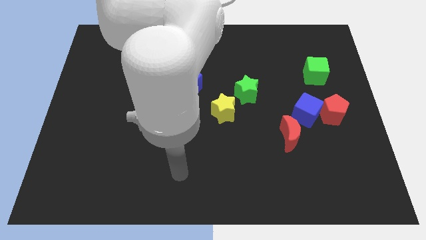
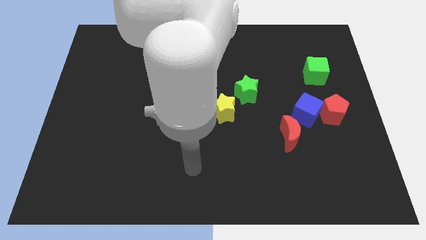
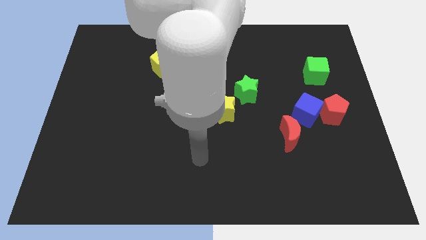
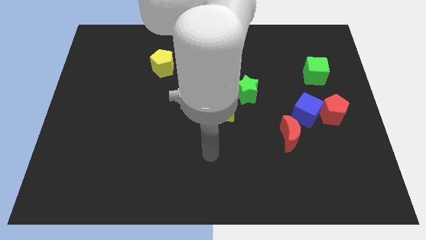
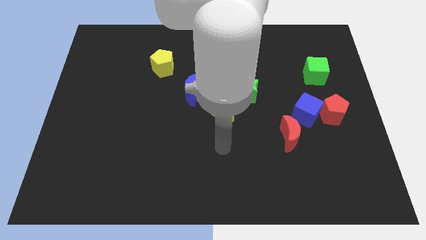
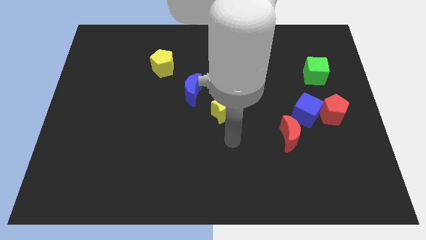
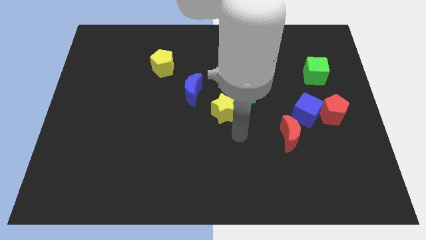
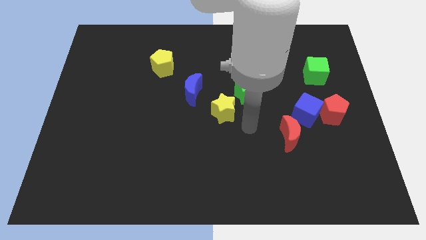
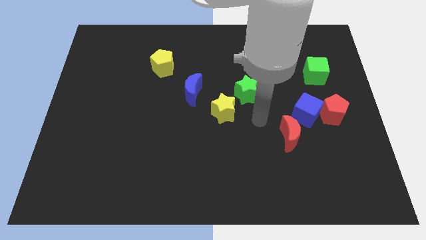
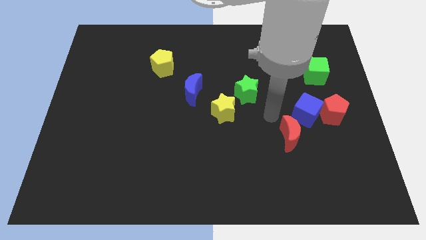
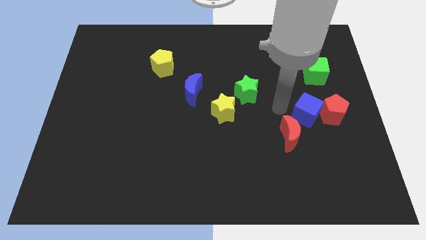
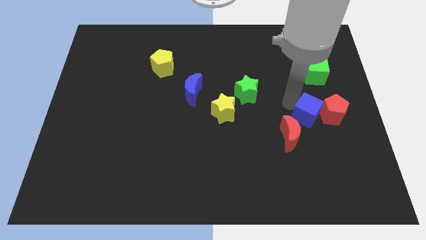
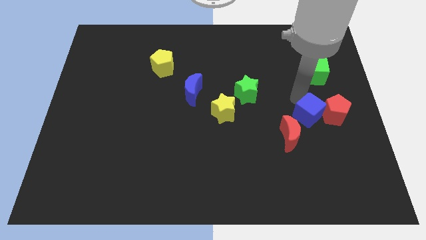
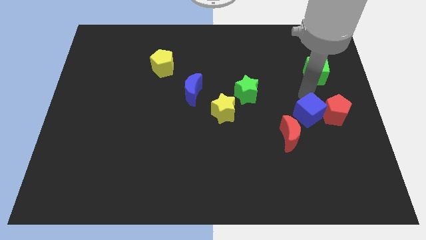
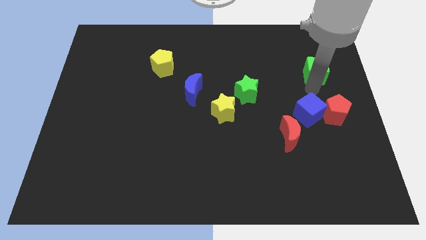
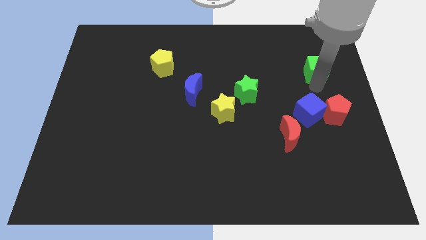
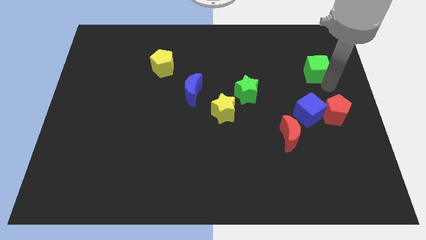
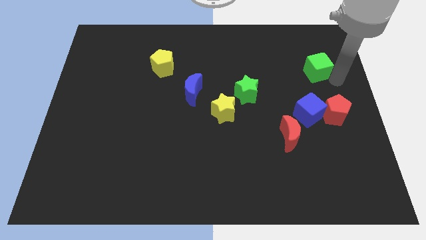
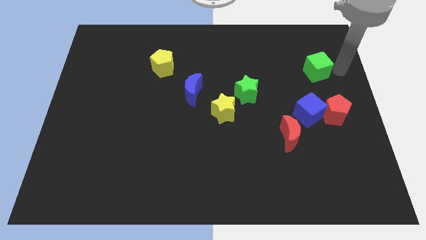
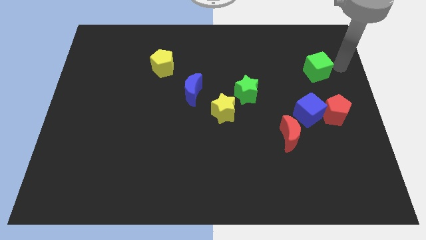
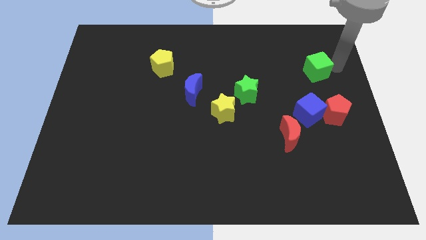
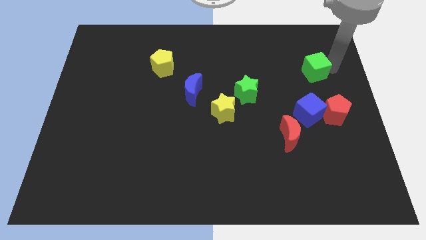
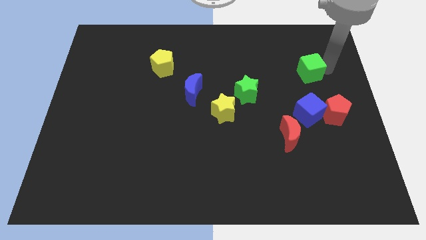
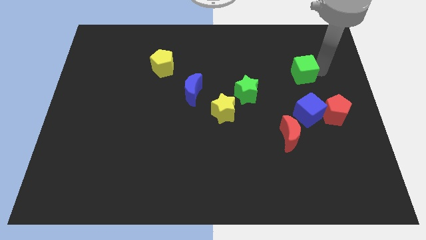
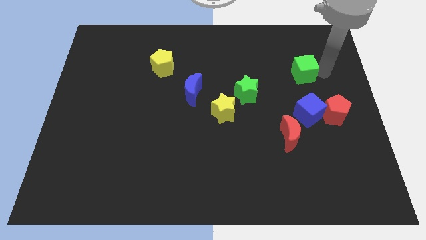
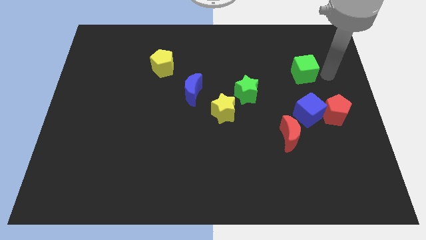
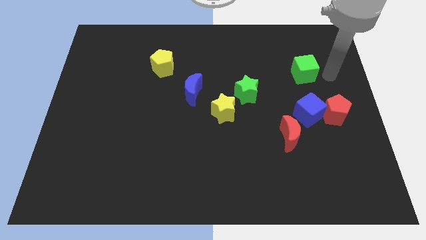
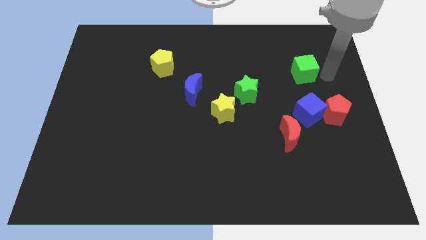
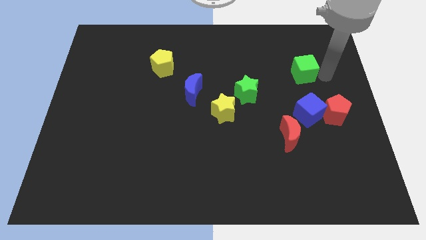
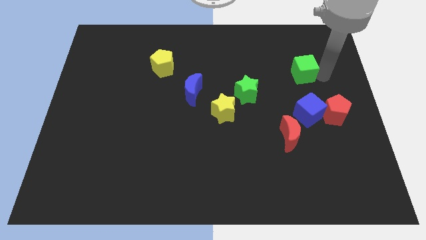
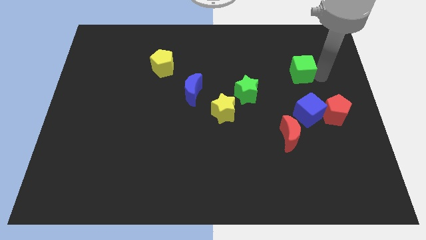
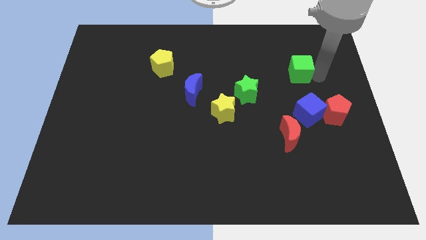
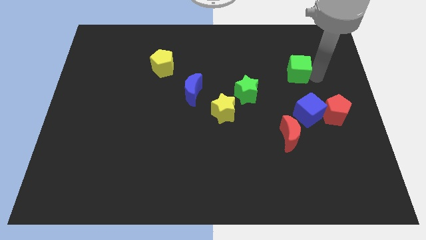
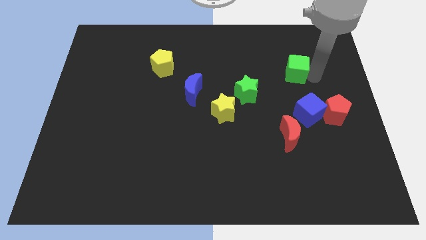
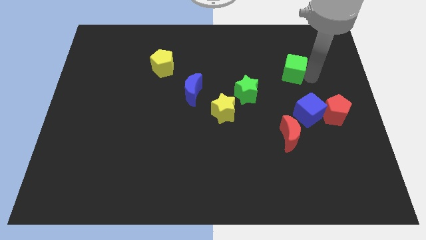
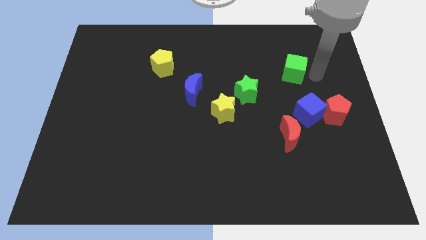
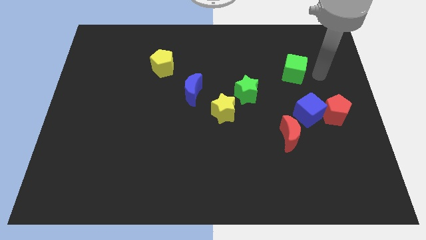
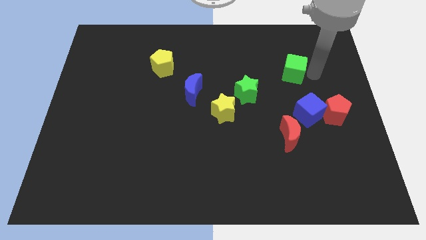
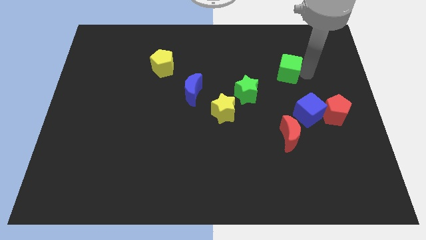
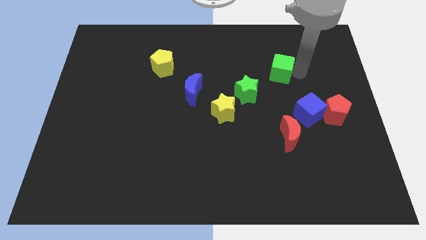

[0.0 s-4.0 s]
slide the green cube to the left a little

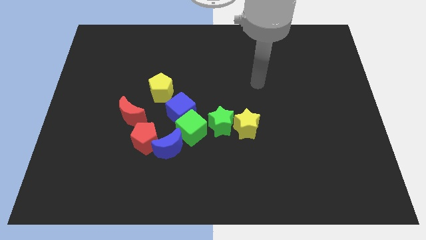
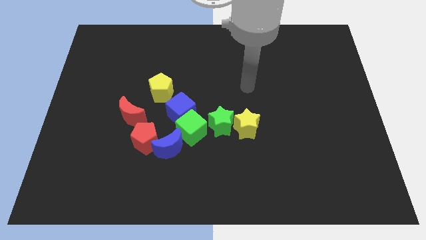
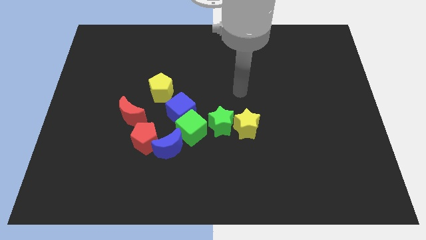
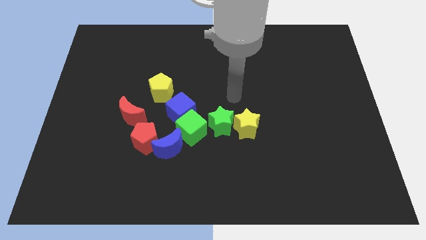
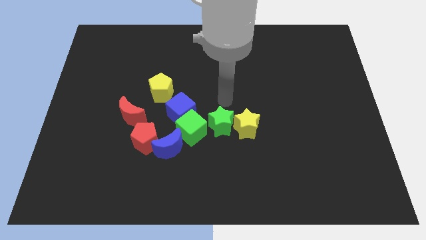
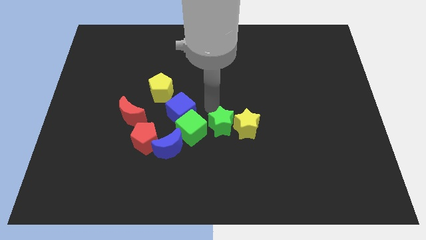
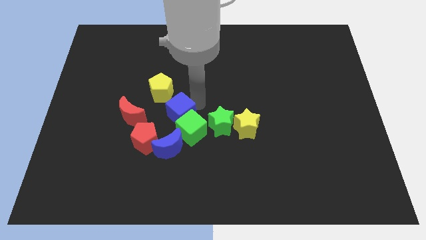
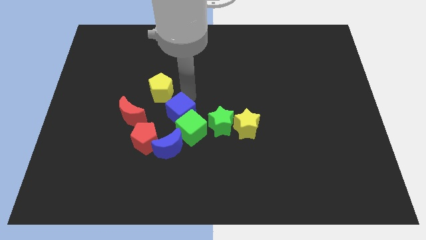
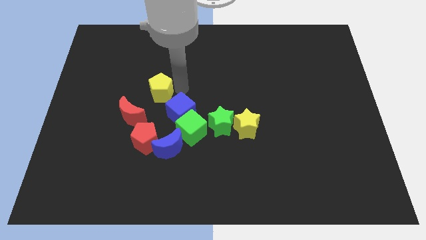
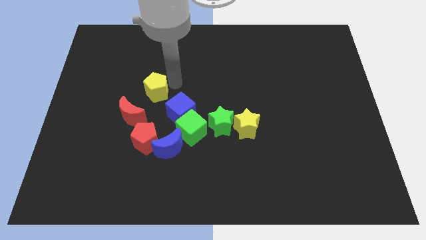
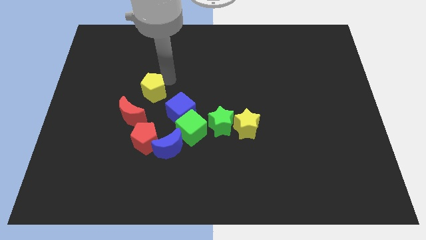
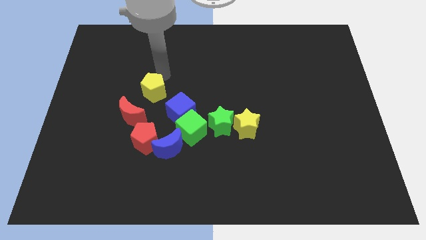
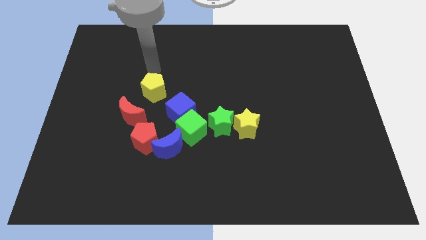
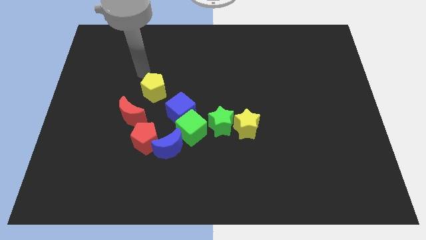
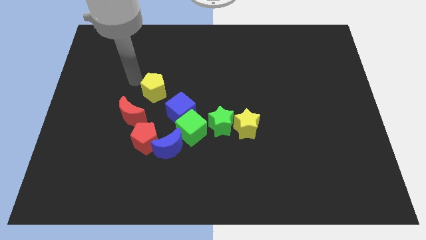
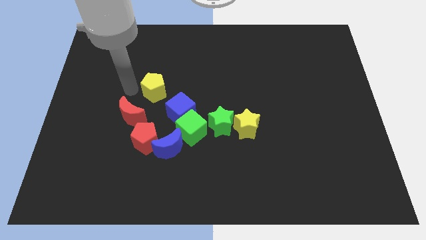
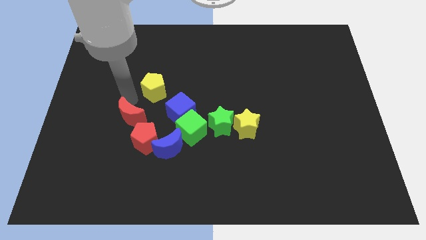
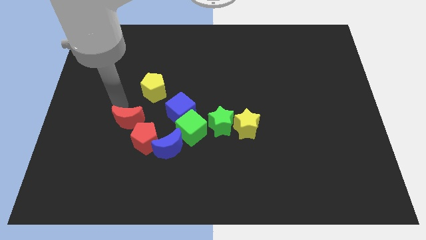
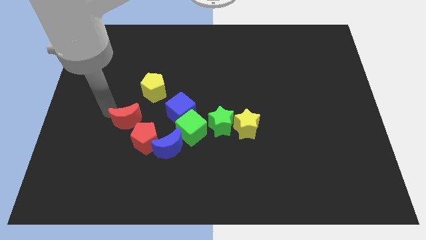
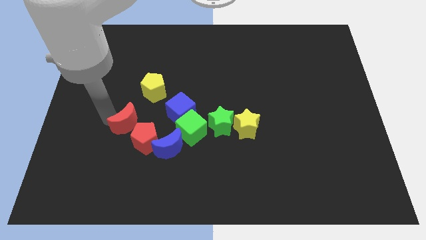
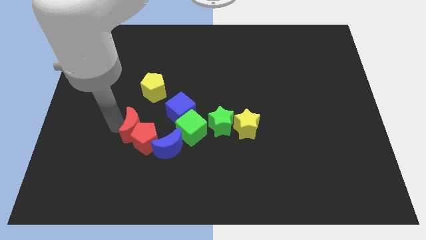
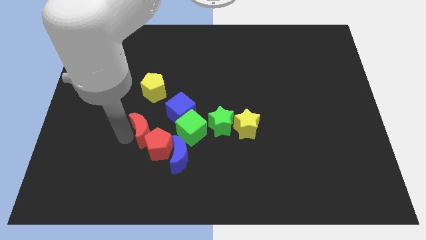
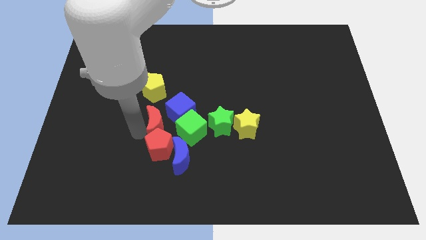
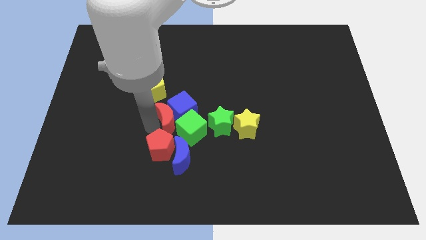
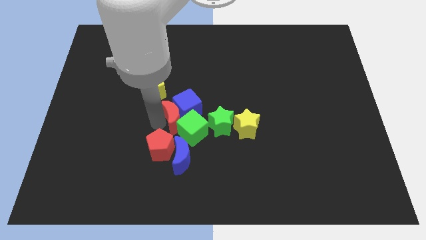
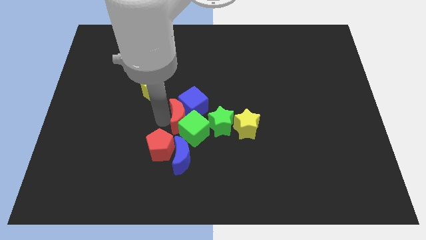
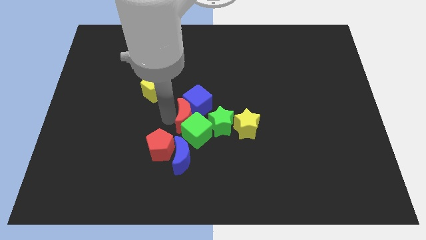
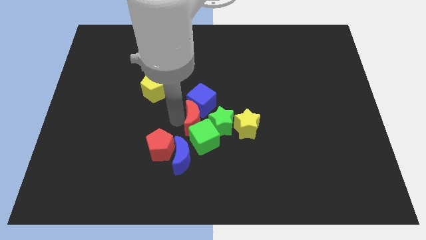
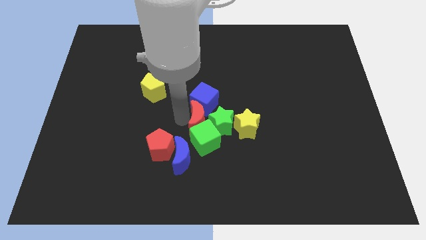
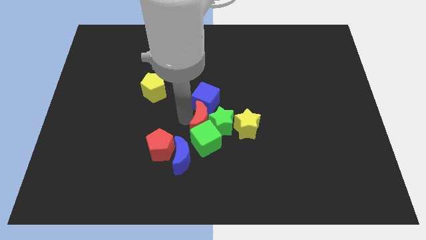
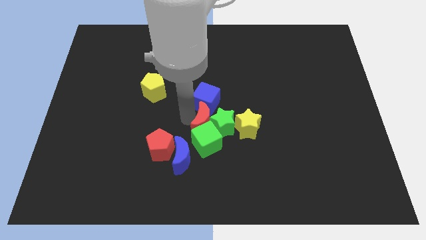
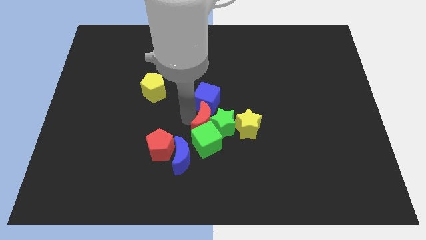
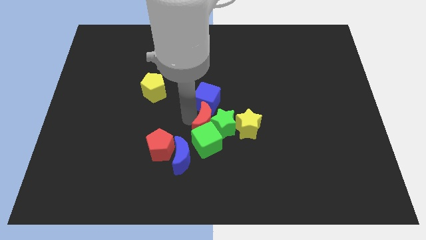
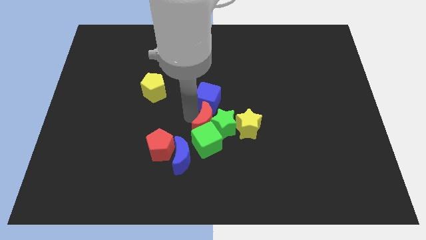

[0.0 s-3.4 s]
slightly move the blue cube up and to the right diagonally

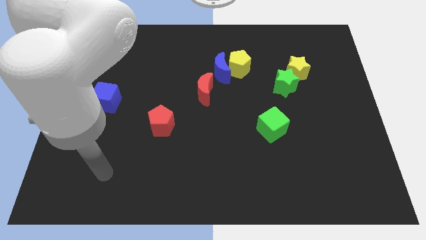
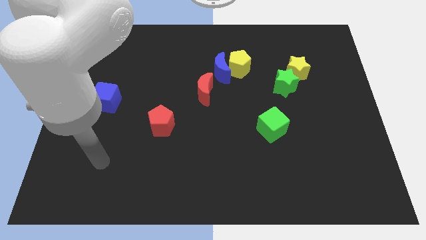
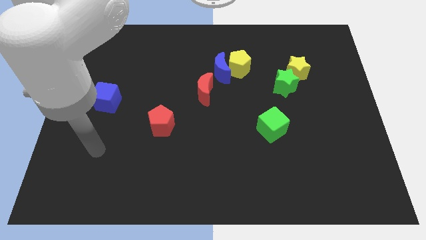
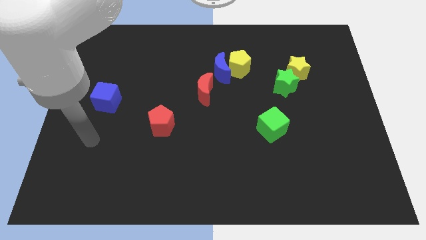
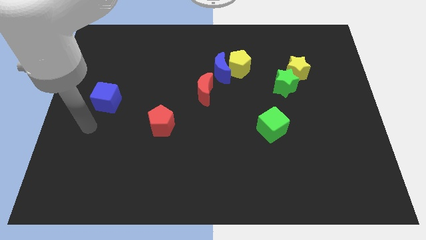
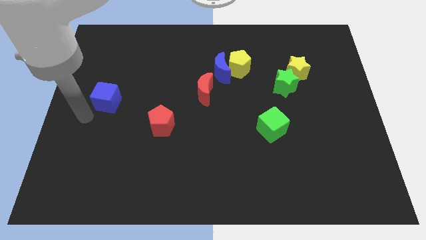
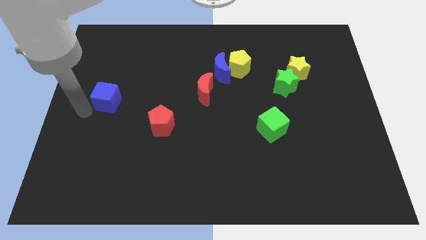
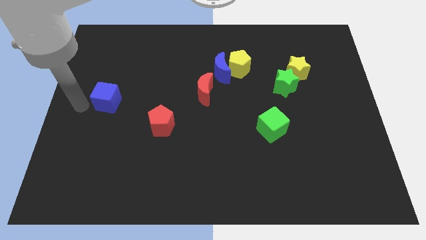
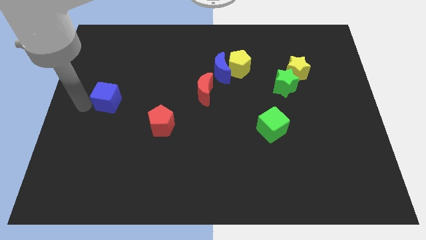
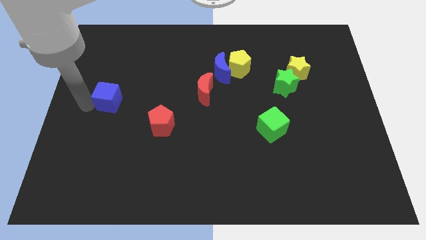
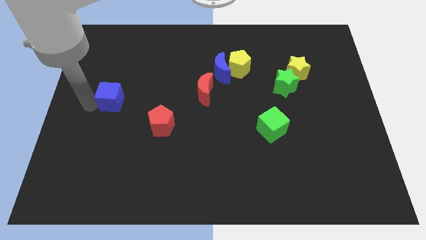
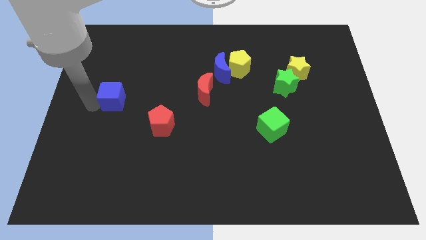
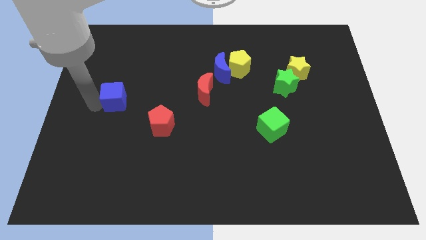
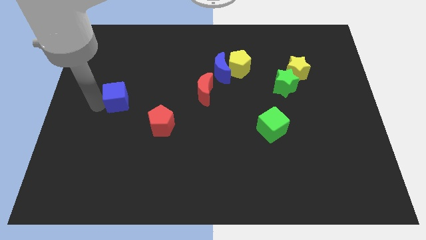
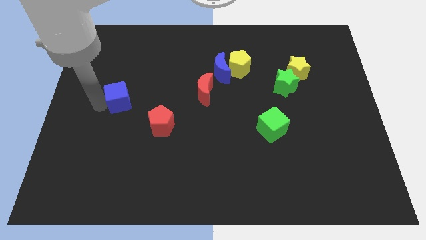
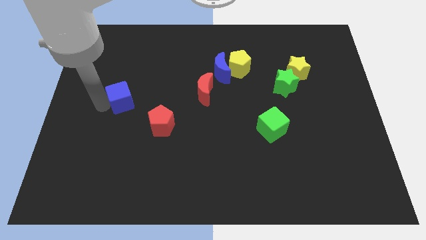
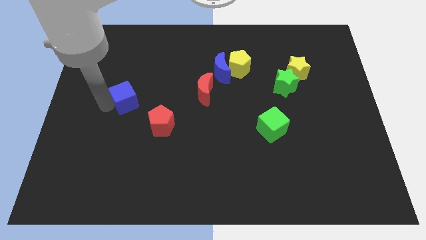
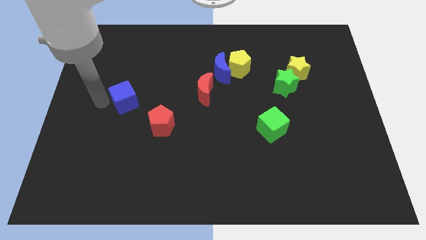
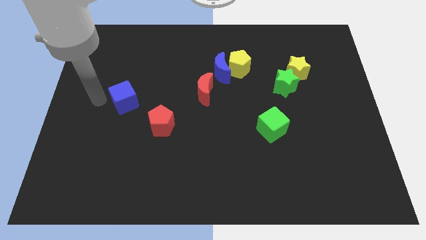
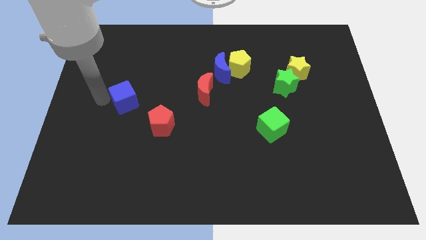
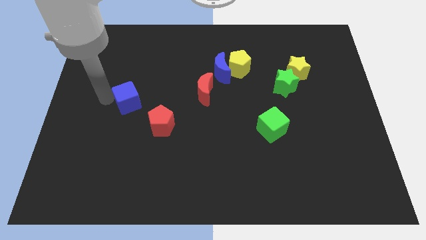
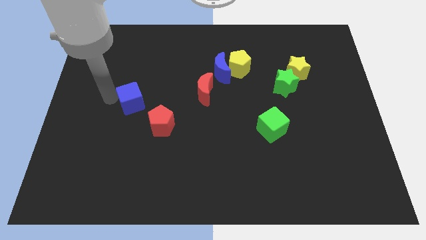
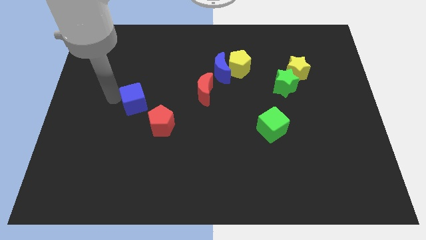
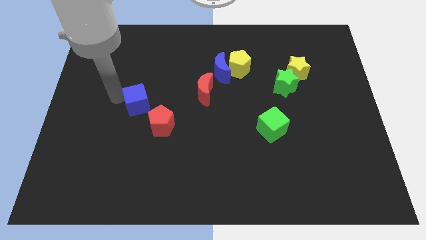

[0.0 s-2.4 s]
push the blue cube a little bit to the right
